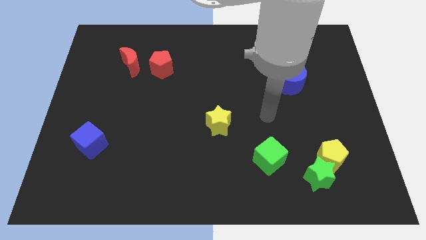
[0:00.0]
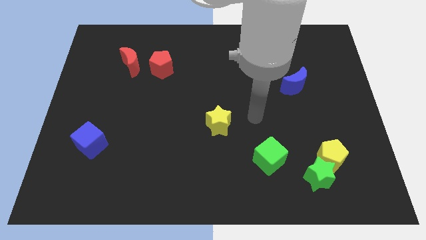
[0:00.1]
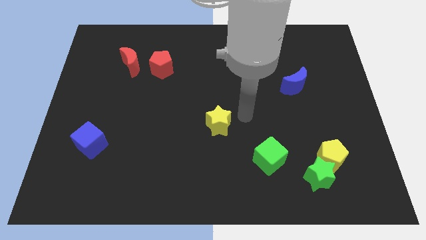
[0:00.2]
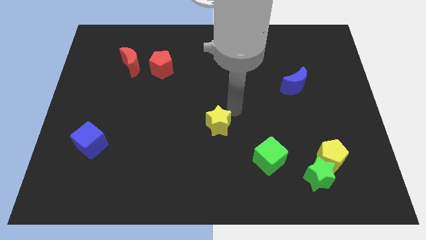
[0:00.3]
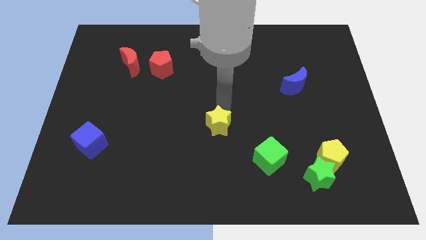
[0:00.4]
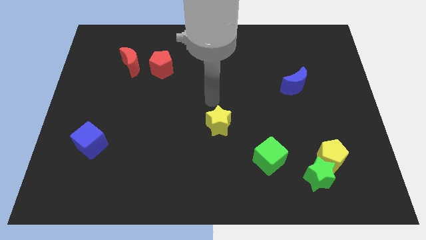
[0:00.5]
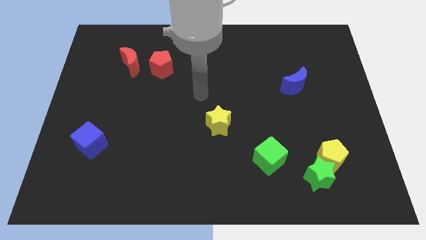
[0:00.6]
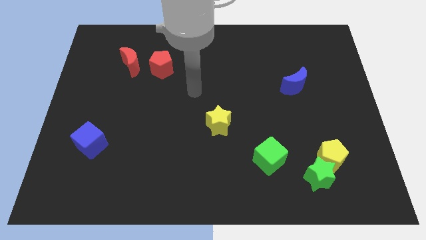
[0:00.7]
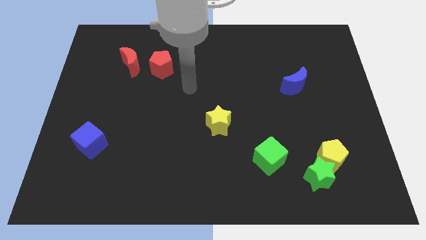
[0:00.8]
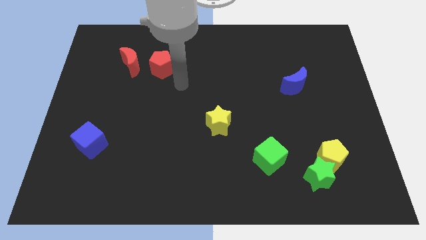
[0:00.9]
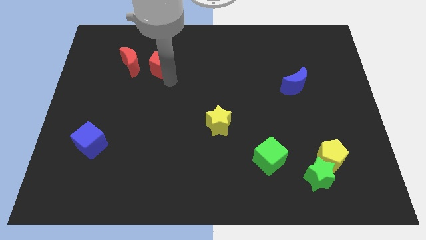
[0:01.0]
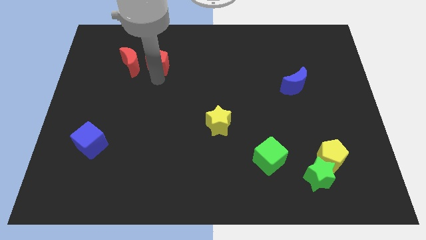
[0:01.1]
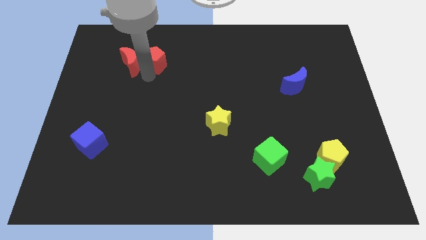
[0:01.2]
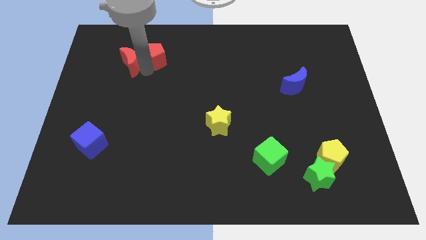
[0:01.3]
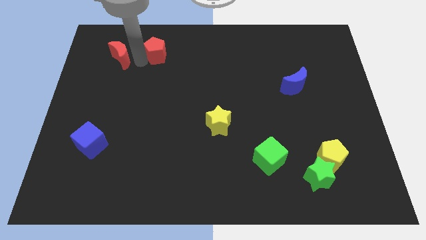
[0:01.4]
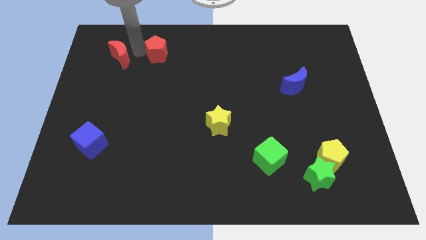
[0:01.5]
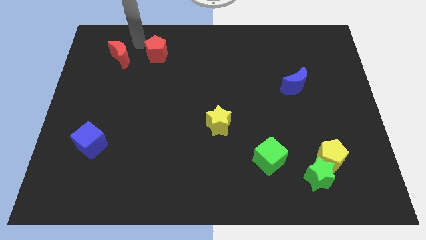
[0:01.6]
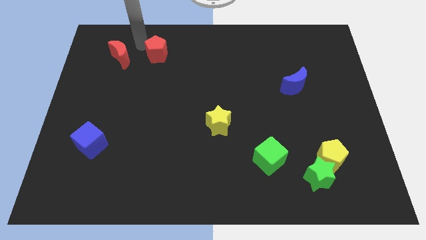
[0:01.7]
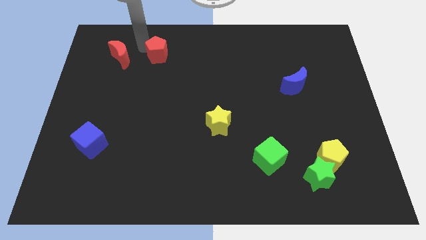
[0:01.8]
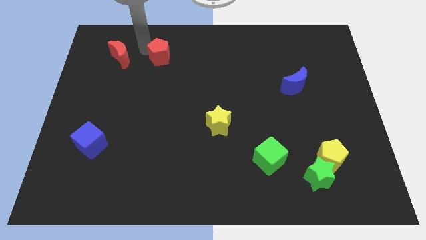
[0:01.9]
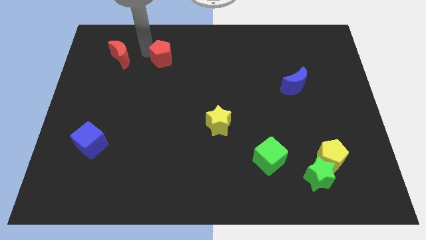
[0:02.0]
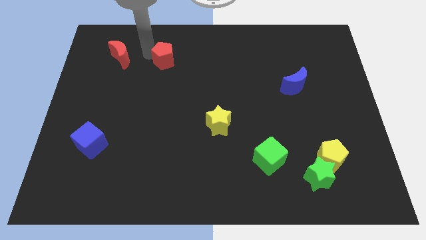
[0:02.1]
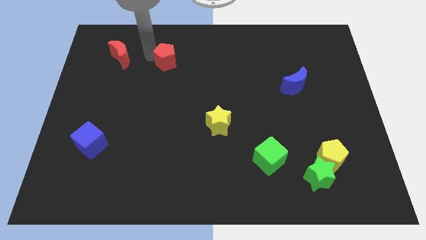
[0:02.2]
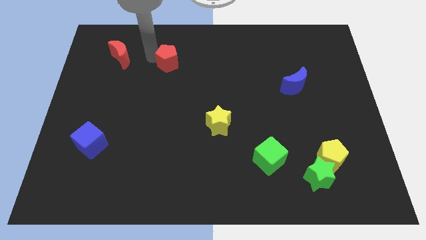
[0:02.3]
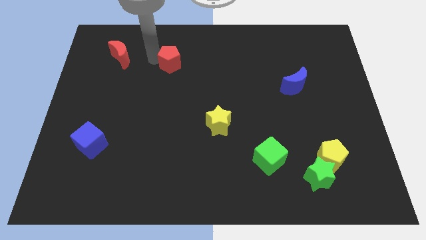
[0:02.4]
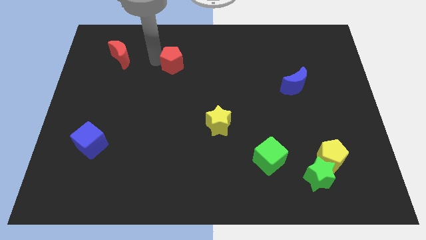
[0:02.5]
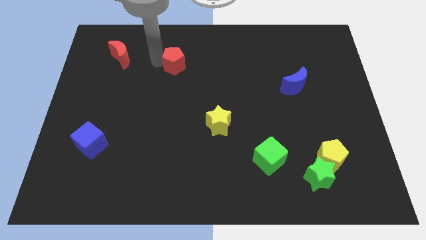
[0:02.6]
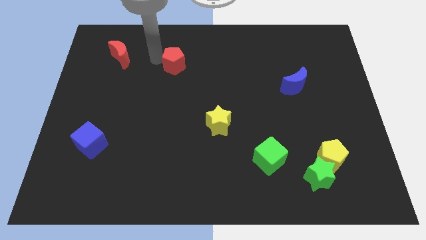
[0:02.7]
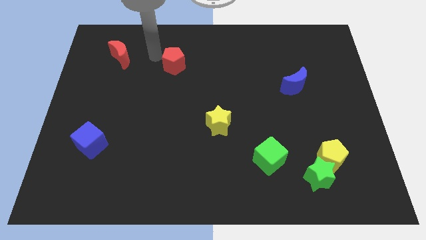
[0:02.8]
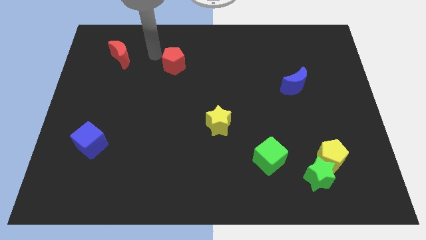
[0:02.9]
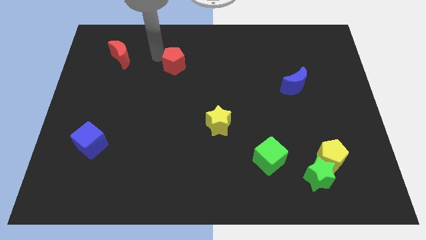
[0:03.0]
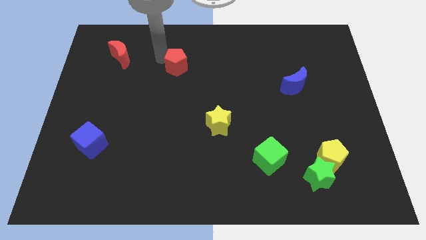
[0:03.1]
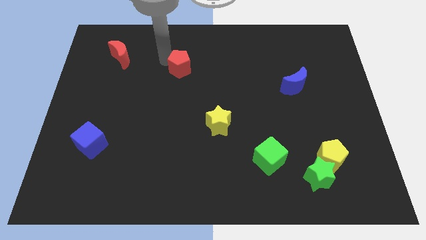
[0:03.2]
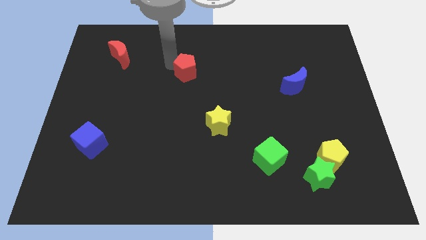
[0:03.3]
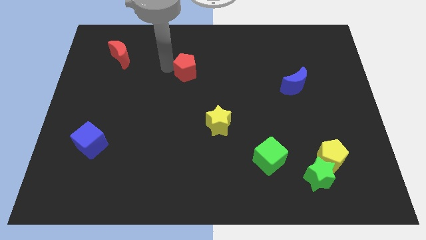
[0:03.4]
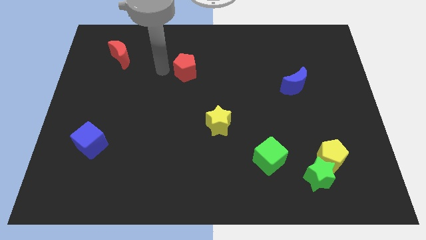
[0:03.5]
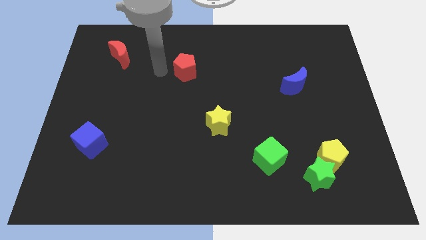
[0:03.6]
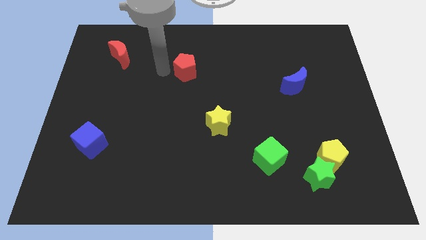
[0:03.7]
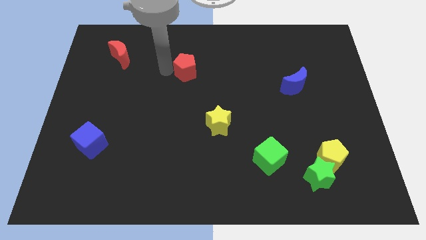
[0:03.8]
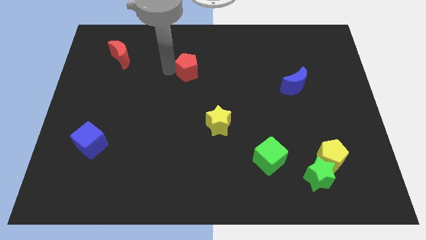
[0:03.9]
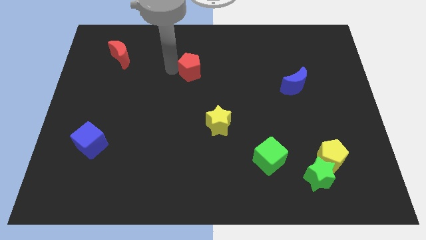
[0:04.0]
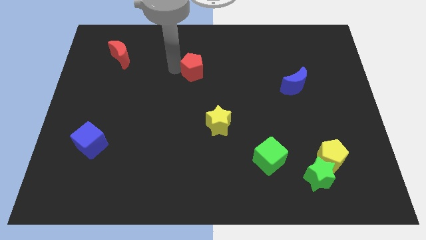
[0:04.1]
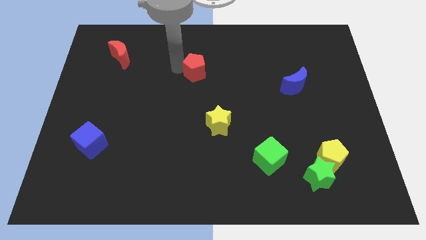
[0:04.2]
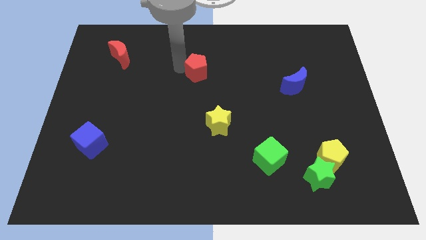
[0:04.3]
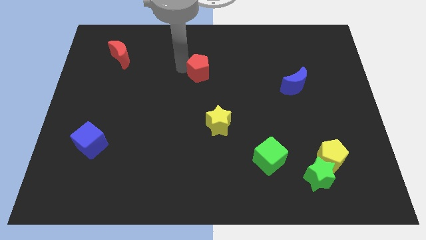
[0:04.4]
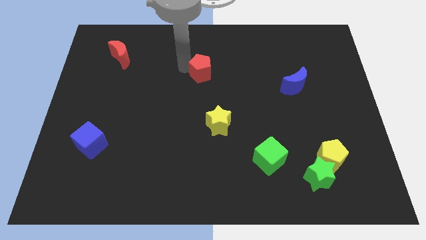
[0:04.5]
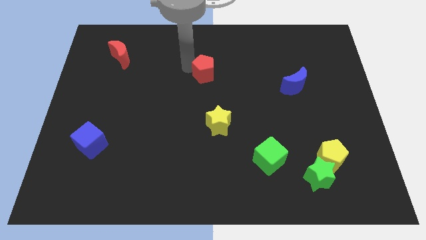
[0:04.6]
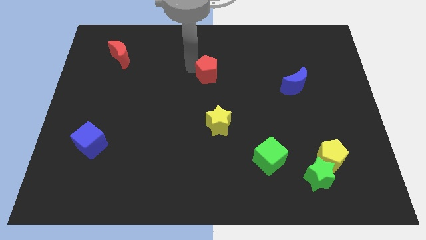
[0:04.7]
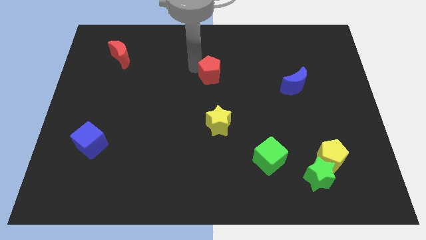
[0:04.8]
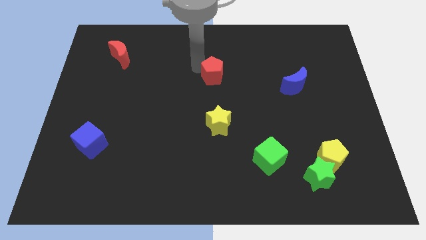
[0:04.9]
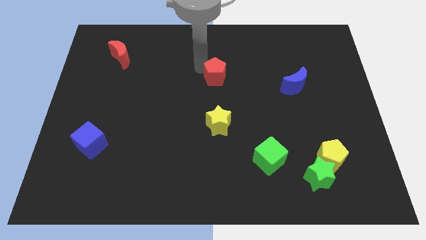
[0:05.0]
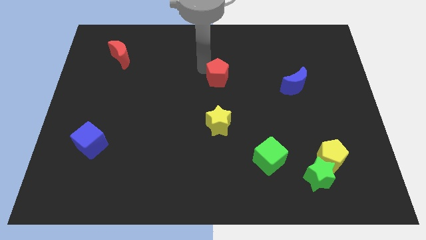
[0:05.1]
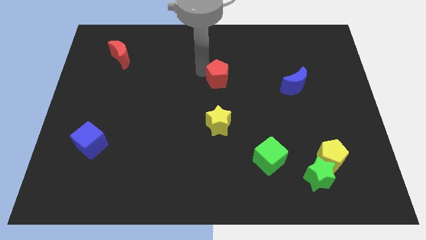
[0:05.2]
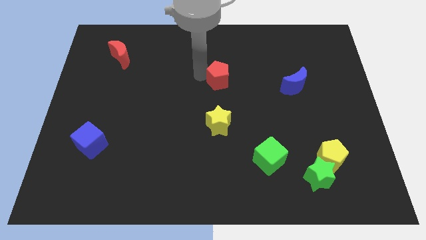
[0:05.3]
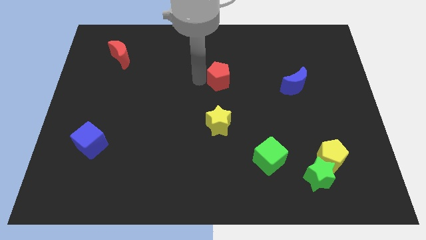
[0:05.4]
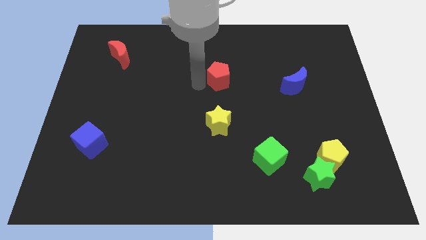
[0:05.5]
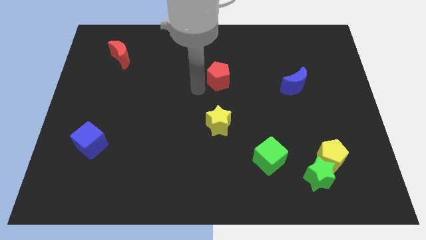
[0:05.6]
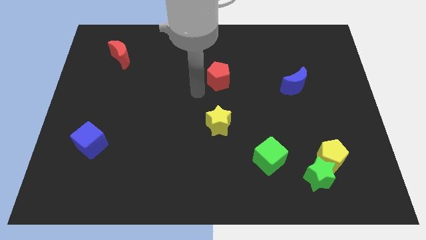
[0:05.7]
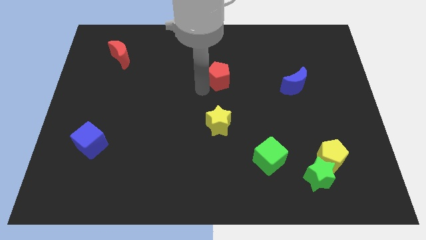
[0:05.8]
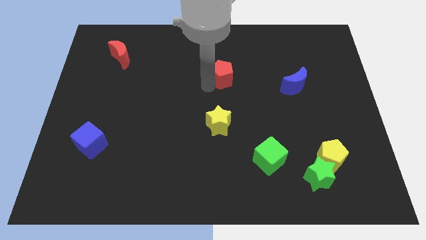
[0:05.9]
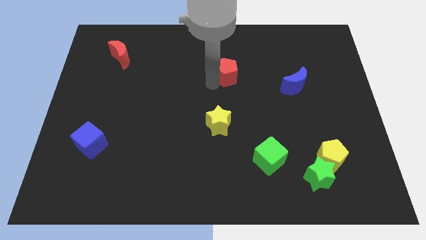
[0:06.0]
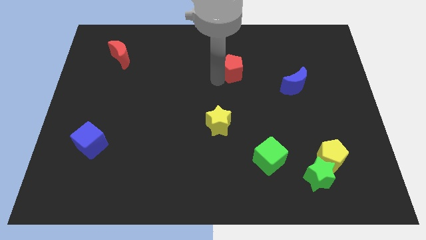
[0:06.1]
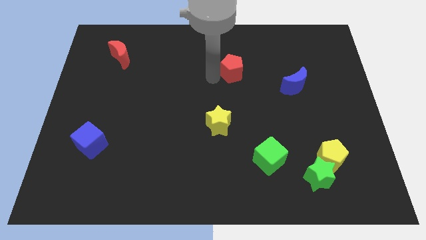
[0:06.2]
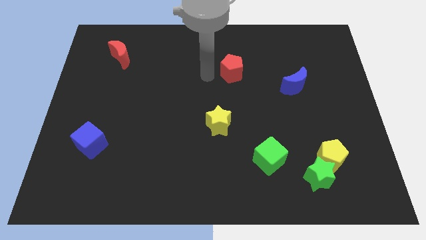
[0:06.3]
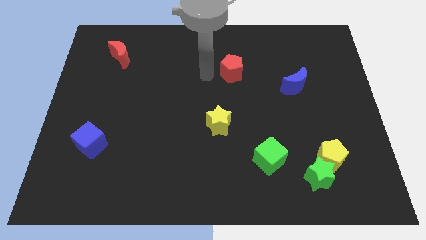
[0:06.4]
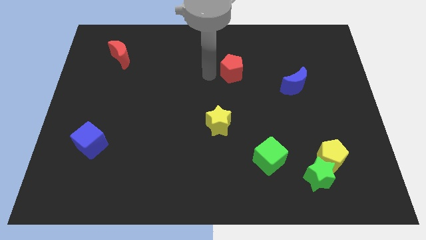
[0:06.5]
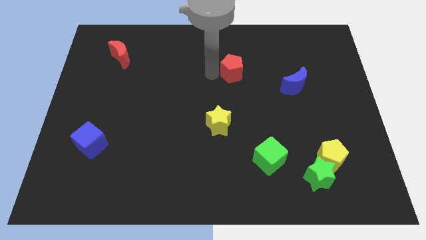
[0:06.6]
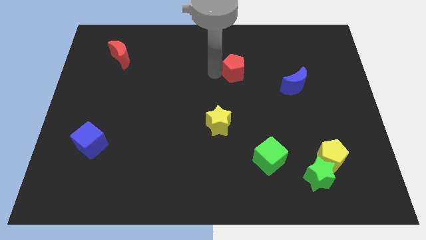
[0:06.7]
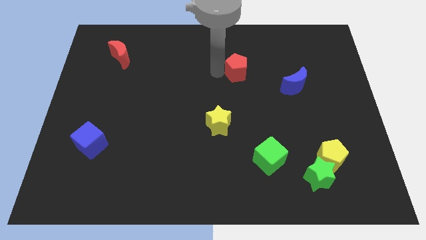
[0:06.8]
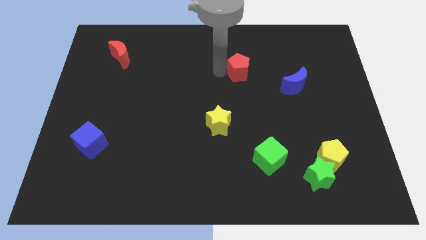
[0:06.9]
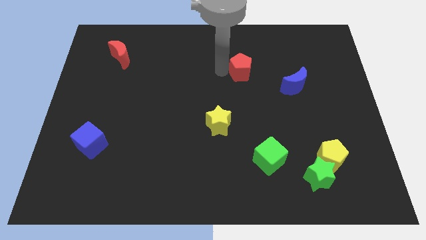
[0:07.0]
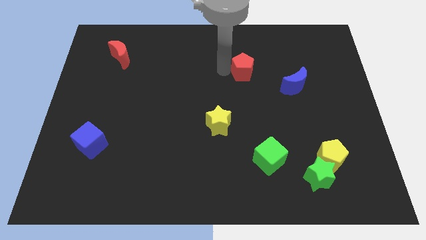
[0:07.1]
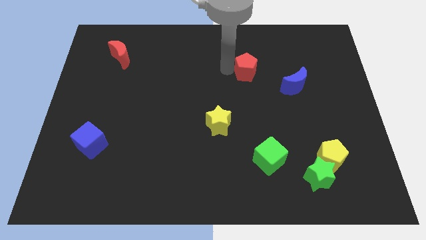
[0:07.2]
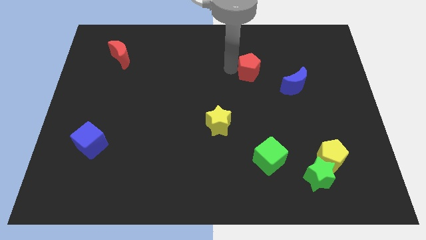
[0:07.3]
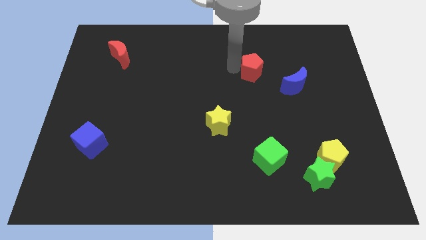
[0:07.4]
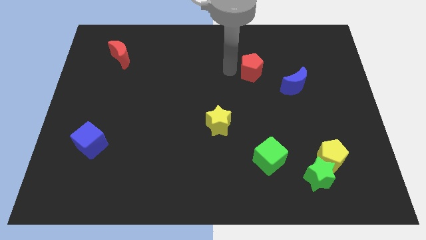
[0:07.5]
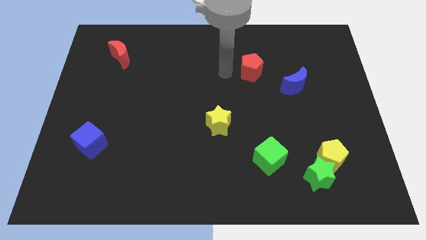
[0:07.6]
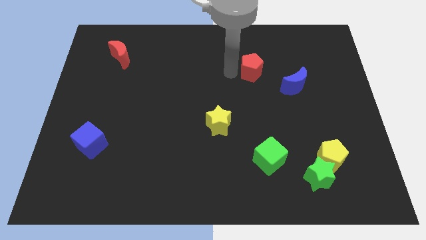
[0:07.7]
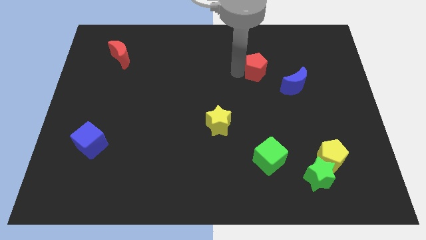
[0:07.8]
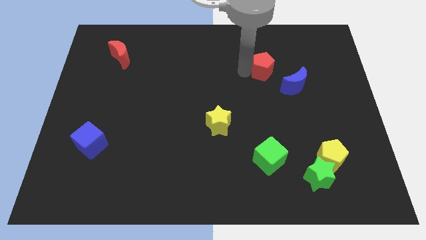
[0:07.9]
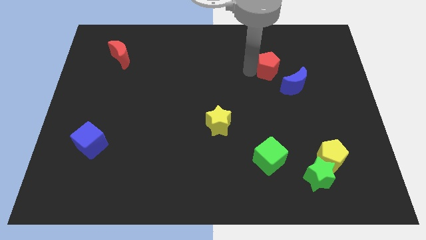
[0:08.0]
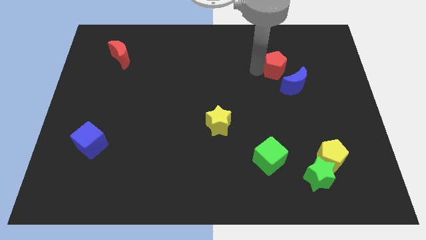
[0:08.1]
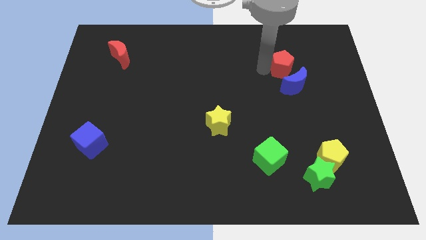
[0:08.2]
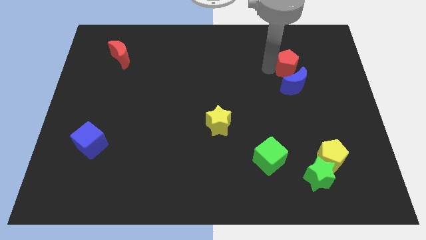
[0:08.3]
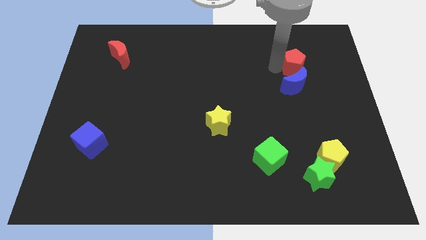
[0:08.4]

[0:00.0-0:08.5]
push the red pentagon to the top right of the blue moon
